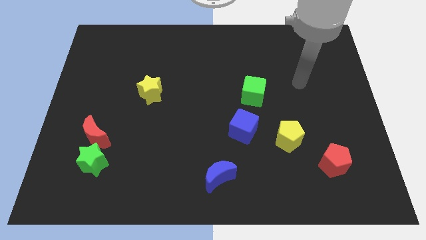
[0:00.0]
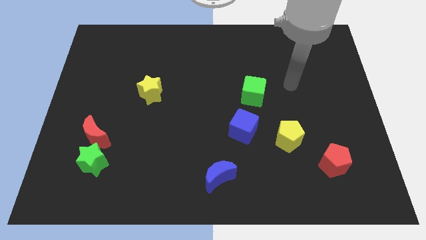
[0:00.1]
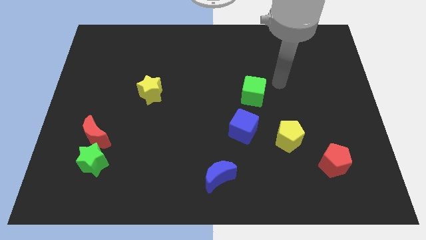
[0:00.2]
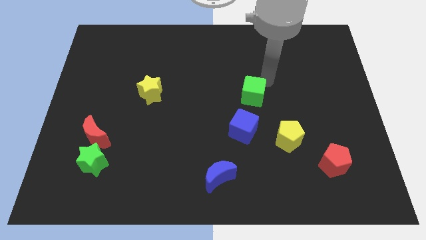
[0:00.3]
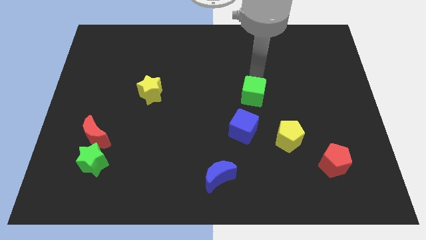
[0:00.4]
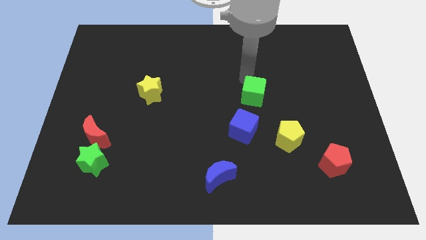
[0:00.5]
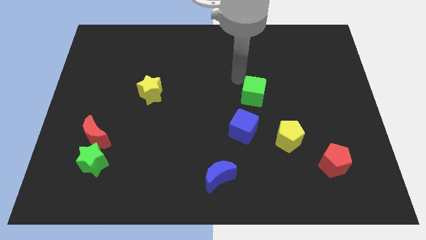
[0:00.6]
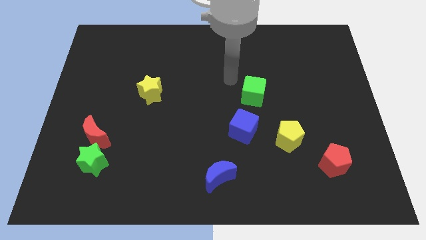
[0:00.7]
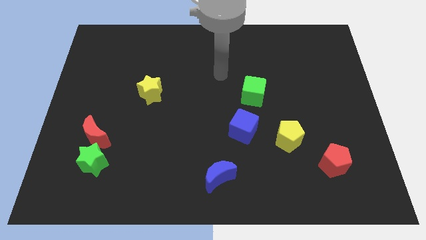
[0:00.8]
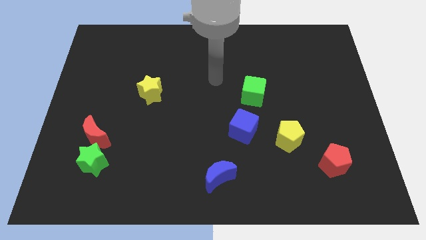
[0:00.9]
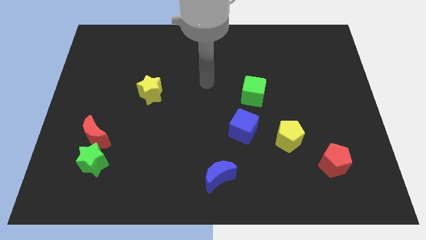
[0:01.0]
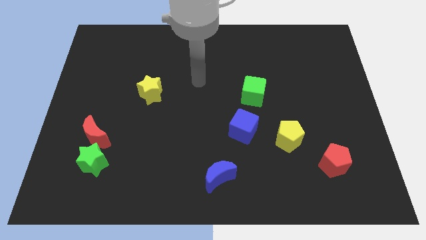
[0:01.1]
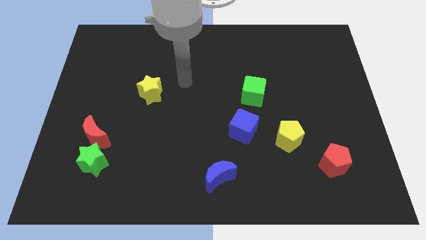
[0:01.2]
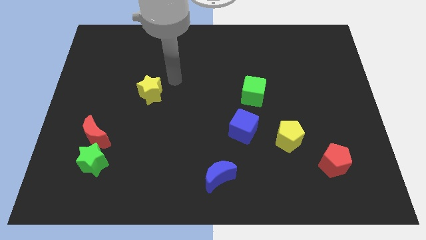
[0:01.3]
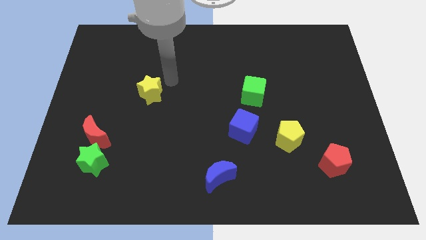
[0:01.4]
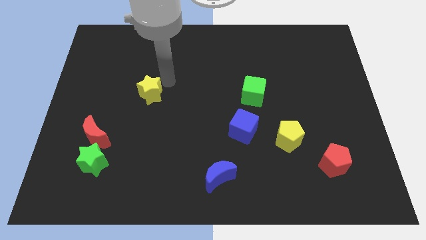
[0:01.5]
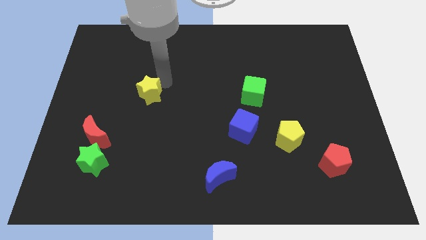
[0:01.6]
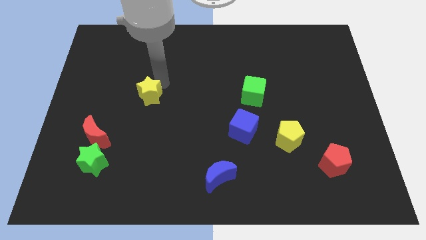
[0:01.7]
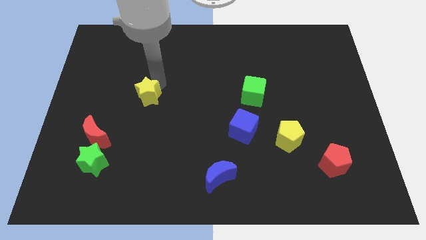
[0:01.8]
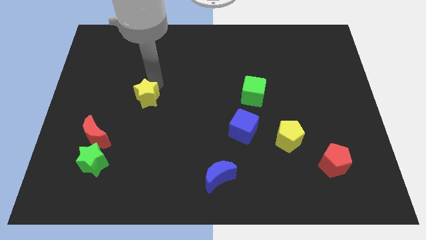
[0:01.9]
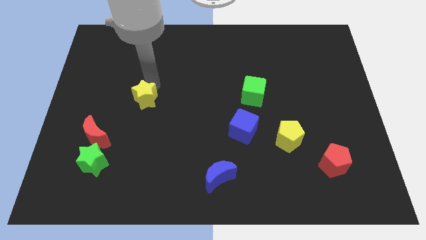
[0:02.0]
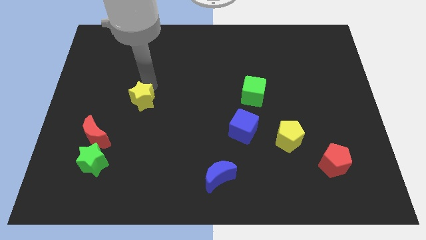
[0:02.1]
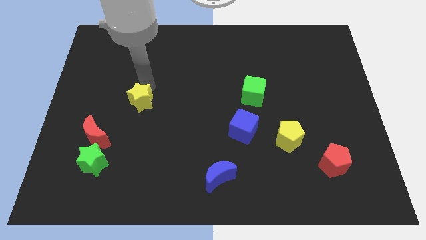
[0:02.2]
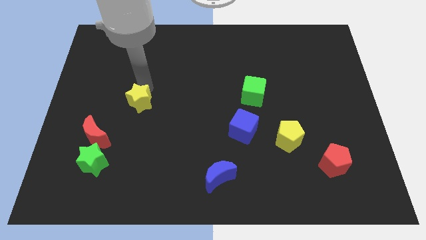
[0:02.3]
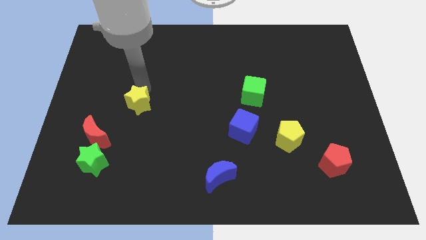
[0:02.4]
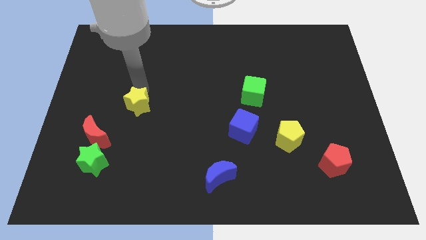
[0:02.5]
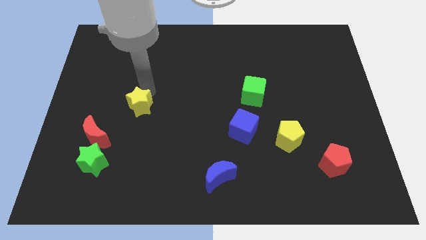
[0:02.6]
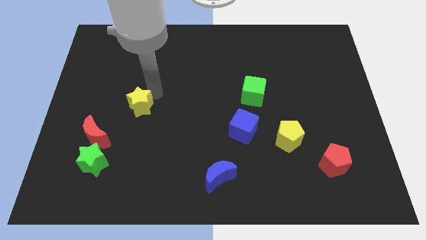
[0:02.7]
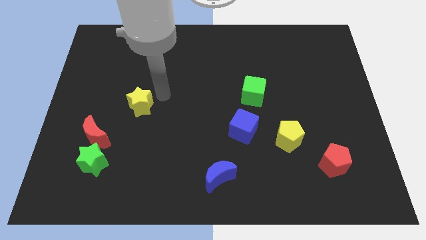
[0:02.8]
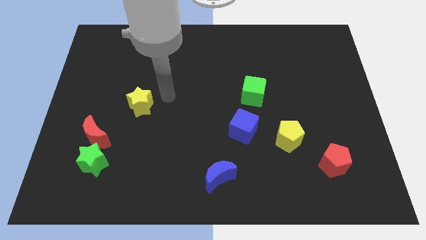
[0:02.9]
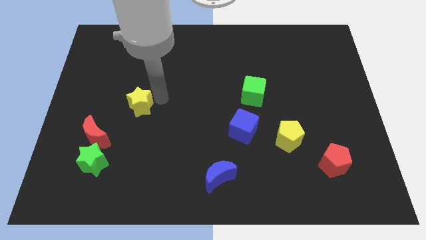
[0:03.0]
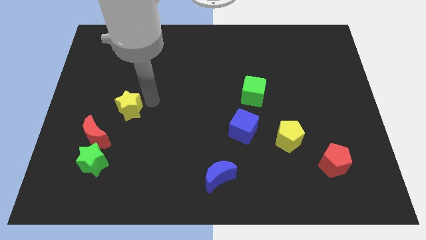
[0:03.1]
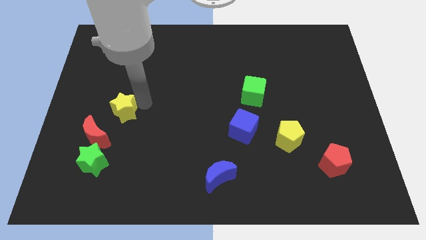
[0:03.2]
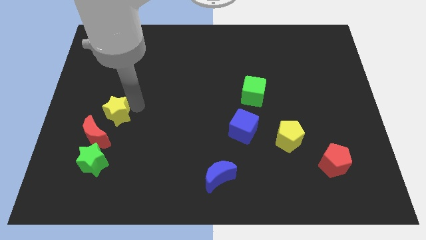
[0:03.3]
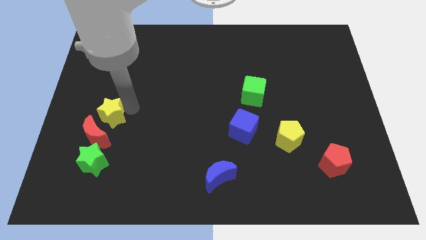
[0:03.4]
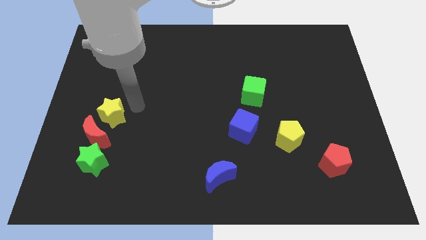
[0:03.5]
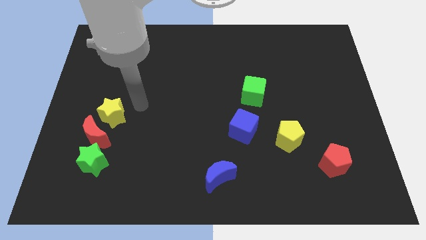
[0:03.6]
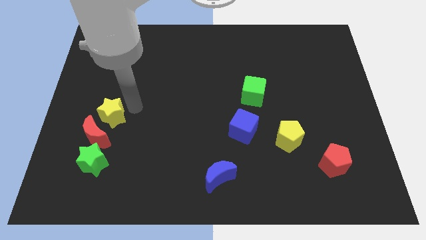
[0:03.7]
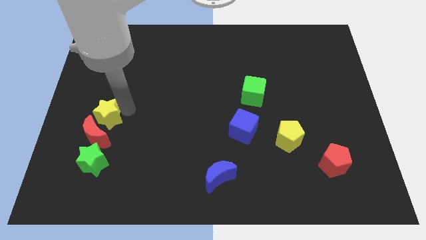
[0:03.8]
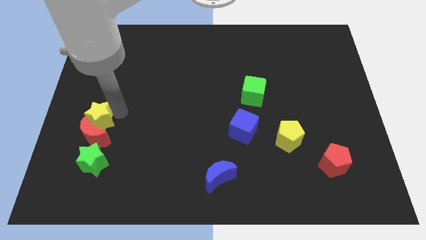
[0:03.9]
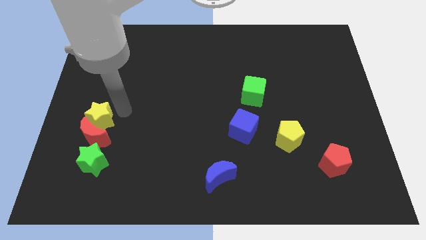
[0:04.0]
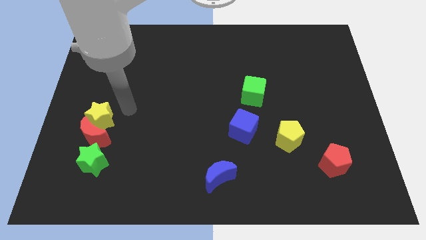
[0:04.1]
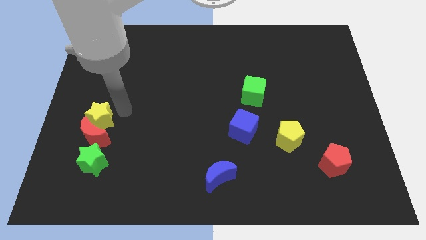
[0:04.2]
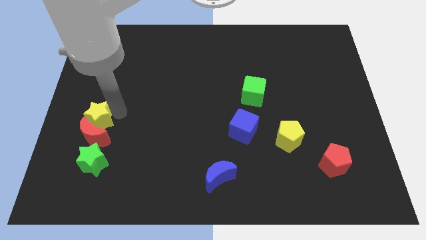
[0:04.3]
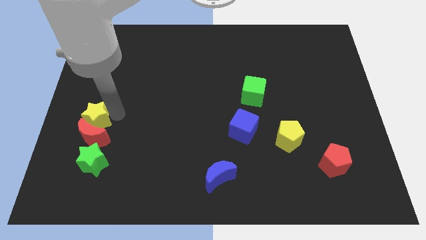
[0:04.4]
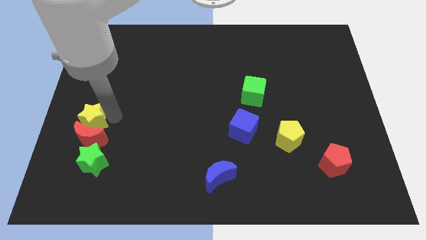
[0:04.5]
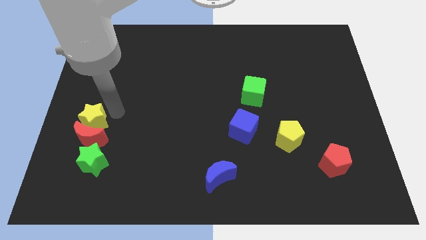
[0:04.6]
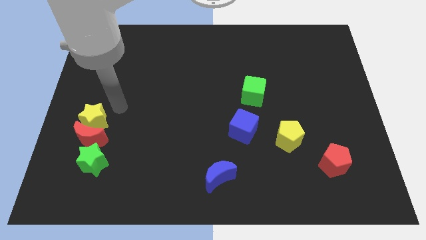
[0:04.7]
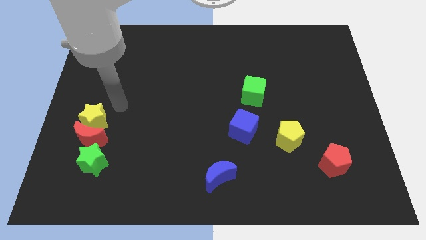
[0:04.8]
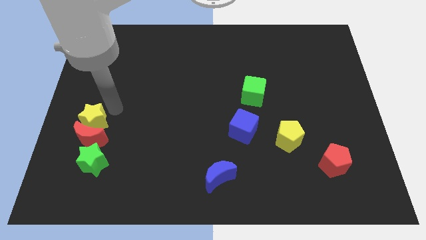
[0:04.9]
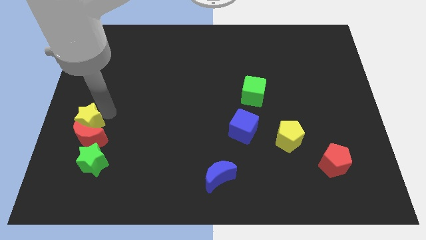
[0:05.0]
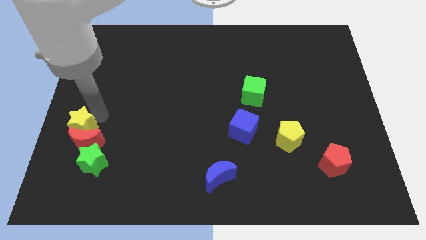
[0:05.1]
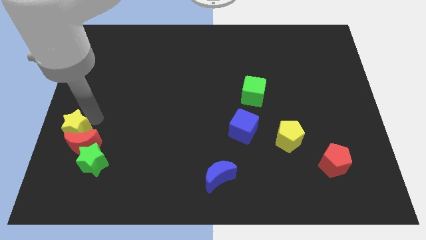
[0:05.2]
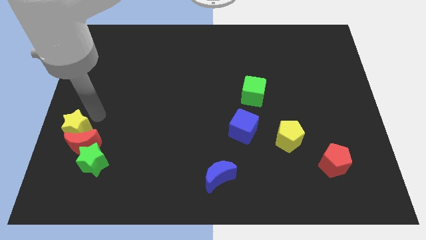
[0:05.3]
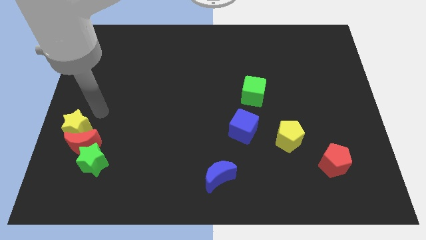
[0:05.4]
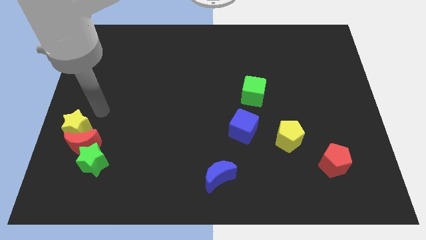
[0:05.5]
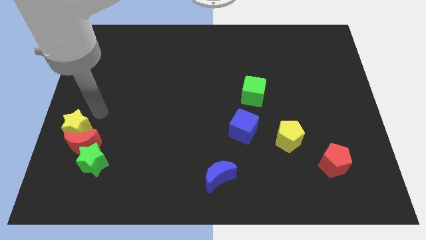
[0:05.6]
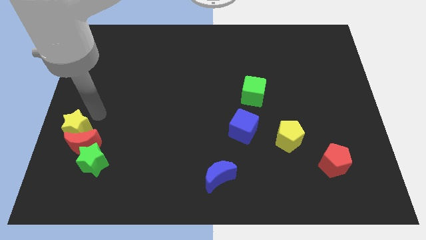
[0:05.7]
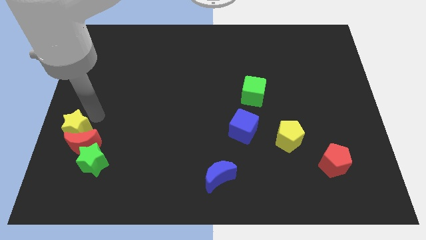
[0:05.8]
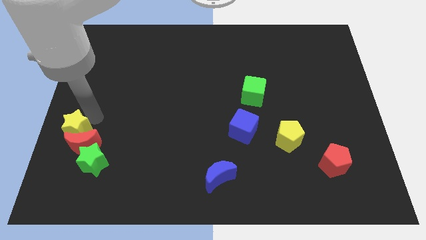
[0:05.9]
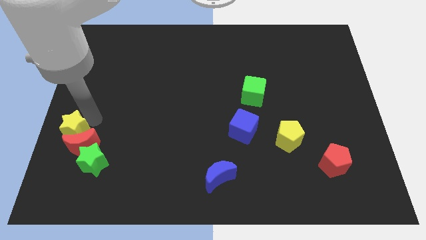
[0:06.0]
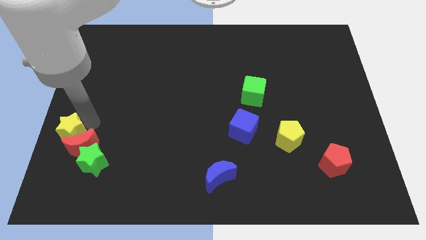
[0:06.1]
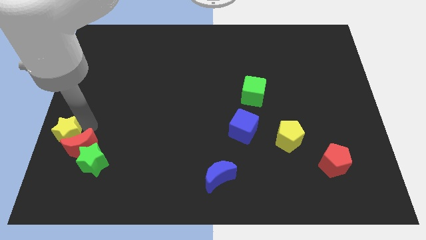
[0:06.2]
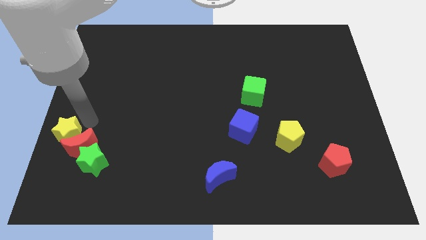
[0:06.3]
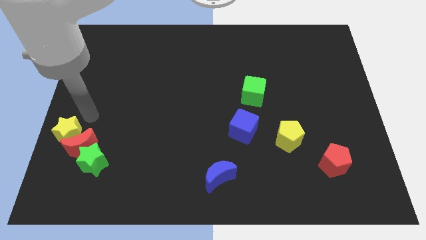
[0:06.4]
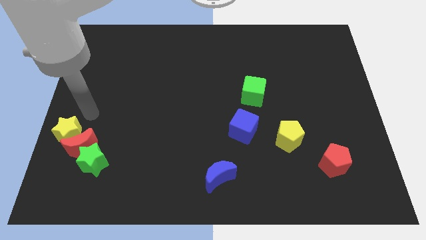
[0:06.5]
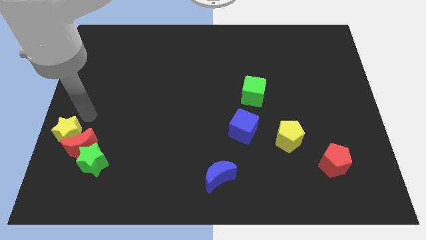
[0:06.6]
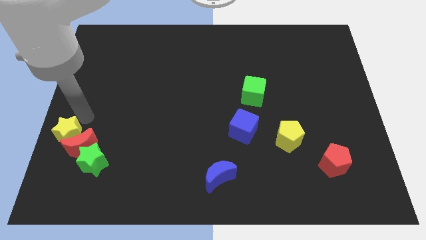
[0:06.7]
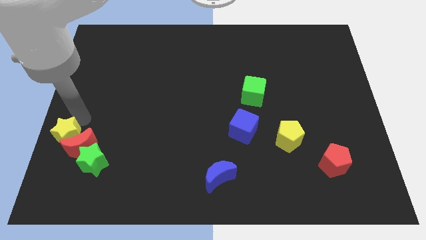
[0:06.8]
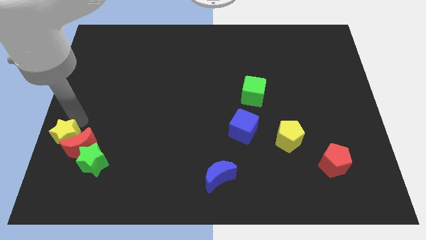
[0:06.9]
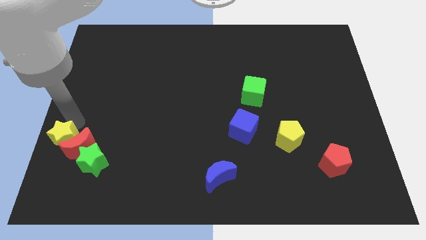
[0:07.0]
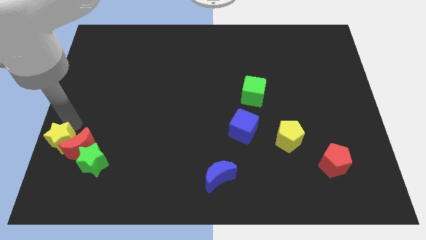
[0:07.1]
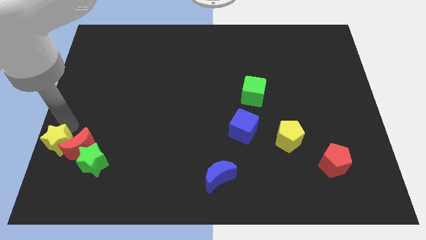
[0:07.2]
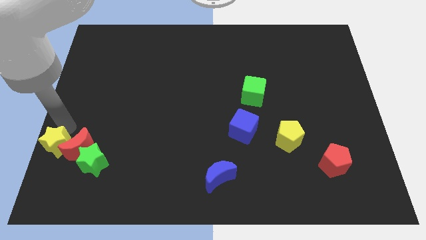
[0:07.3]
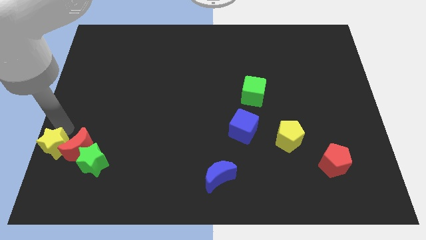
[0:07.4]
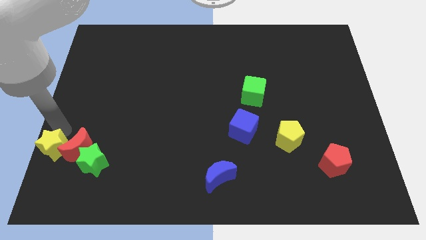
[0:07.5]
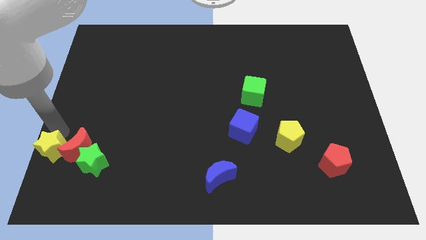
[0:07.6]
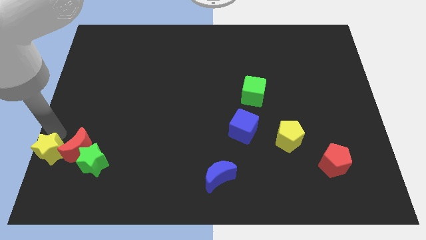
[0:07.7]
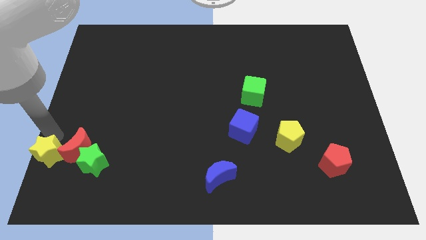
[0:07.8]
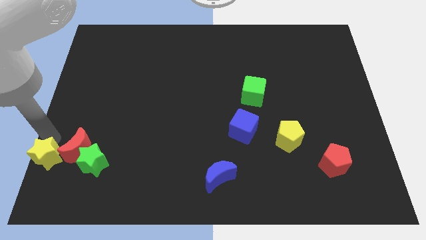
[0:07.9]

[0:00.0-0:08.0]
move the yellow star to the bottom left
